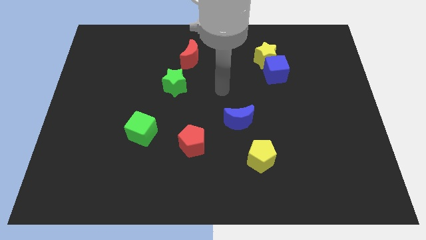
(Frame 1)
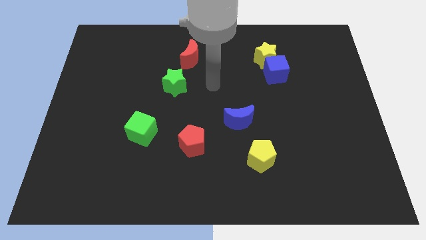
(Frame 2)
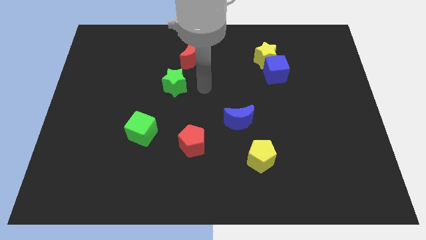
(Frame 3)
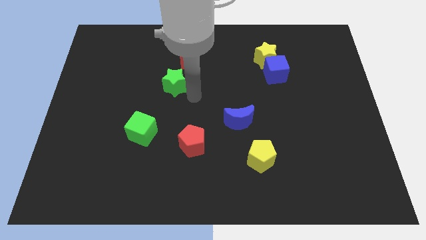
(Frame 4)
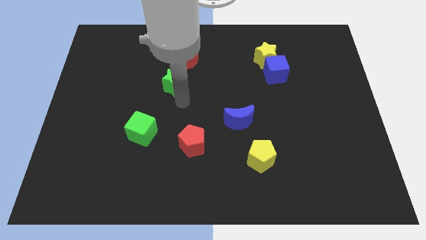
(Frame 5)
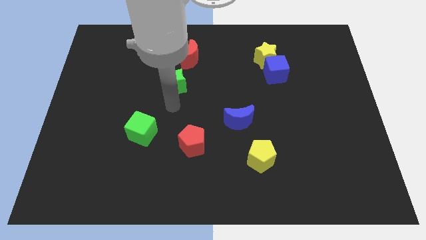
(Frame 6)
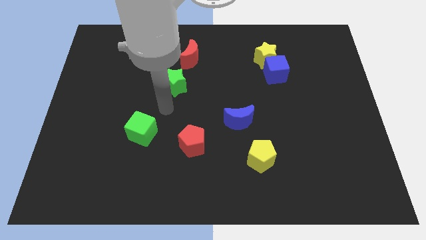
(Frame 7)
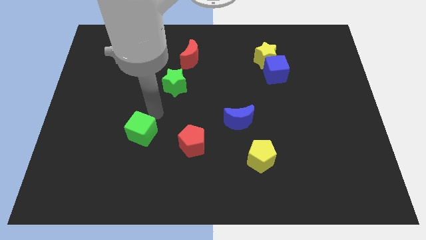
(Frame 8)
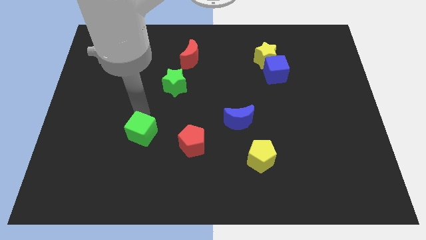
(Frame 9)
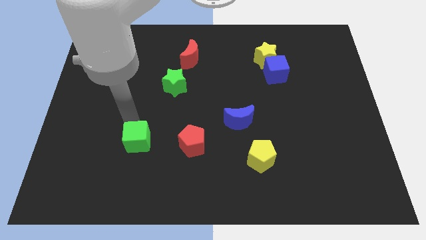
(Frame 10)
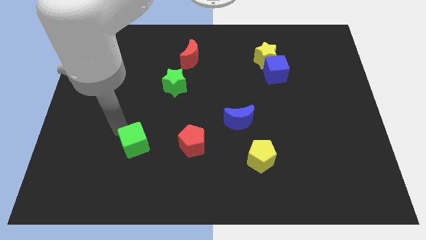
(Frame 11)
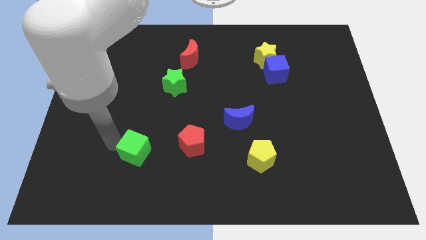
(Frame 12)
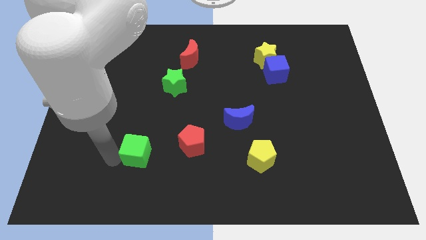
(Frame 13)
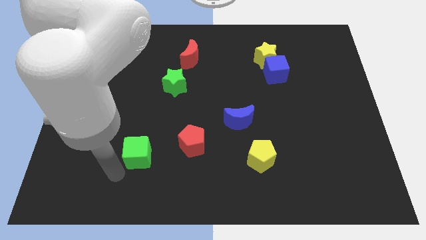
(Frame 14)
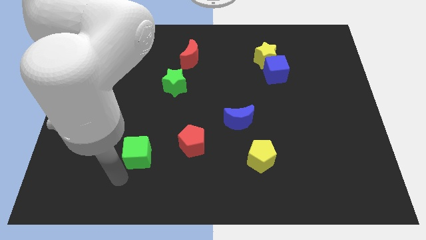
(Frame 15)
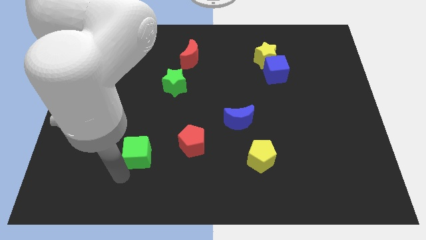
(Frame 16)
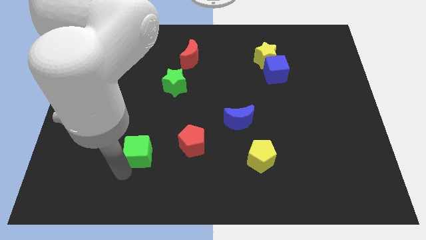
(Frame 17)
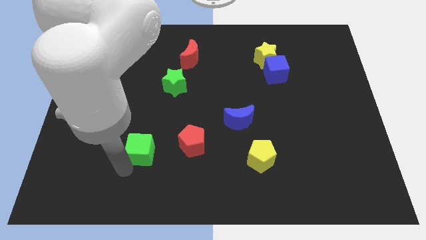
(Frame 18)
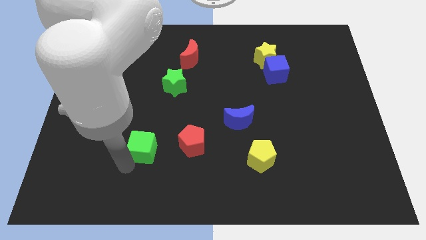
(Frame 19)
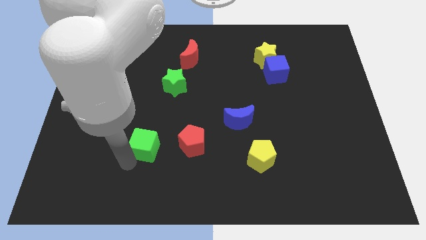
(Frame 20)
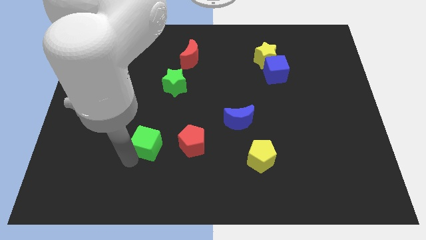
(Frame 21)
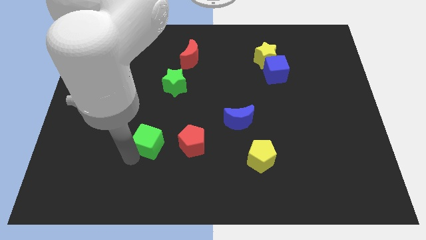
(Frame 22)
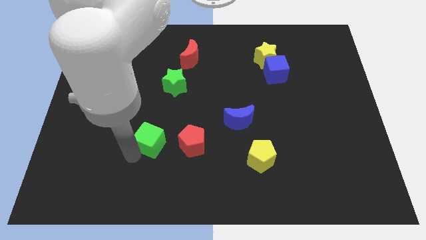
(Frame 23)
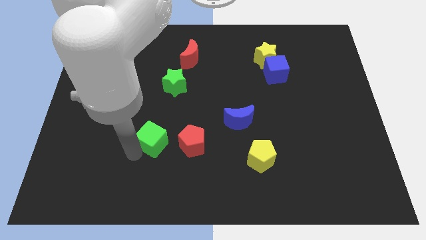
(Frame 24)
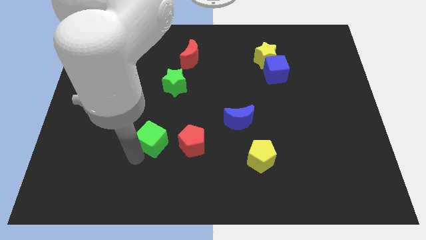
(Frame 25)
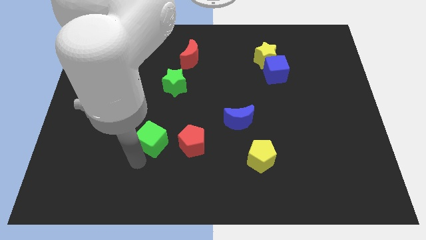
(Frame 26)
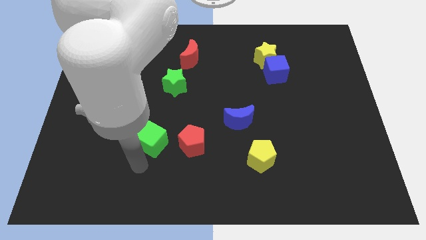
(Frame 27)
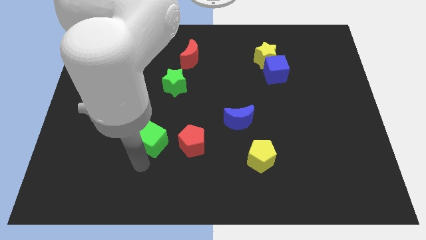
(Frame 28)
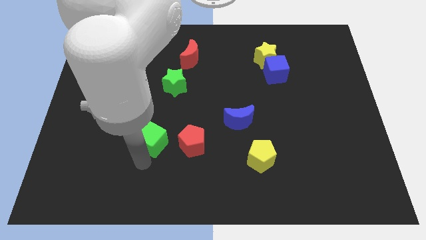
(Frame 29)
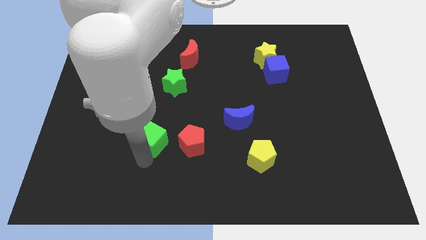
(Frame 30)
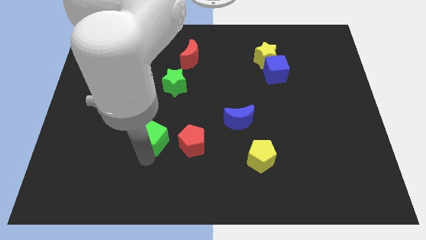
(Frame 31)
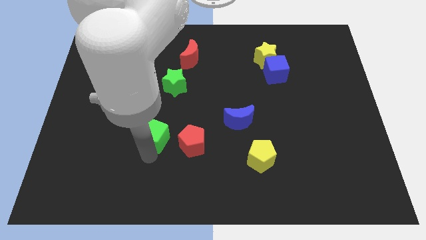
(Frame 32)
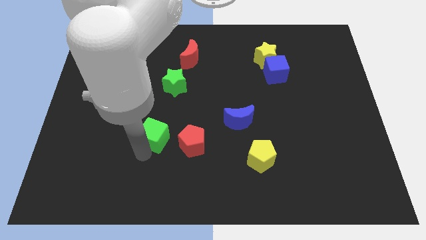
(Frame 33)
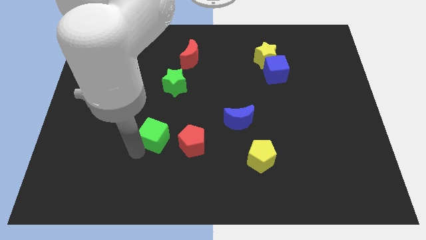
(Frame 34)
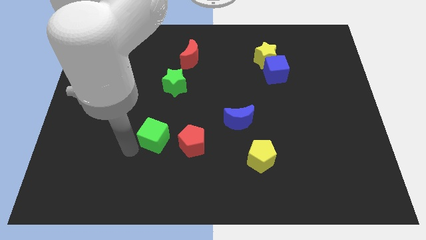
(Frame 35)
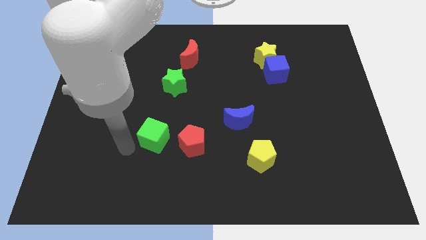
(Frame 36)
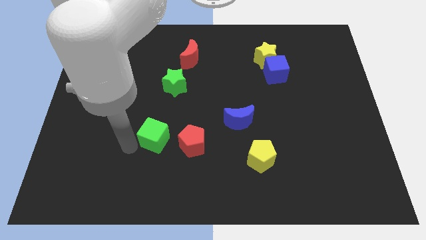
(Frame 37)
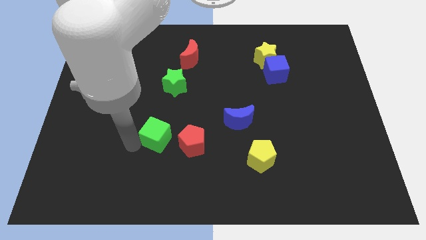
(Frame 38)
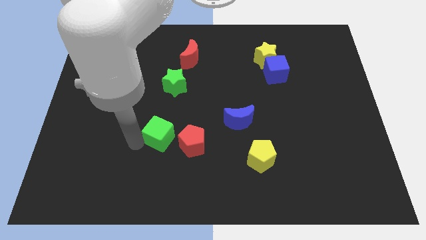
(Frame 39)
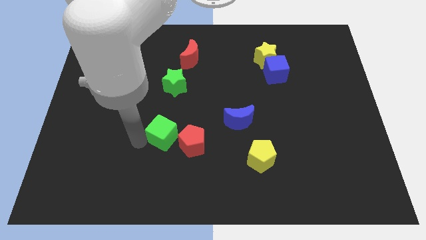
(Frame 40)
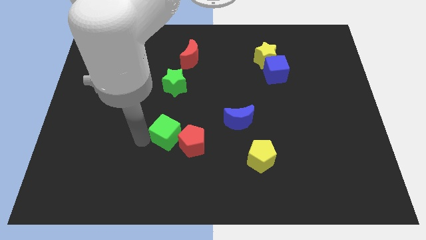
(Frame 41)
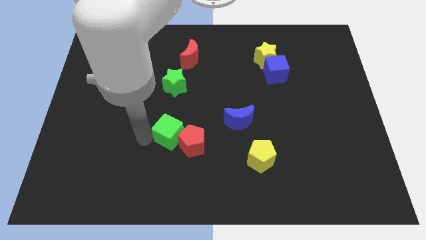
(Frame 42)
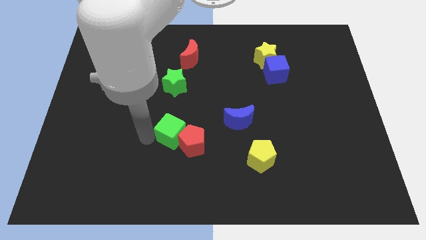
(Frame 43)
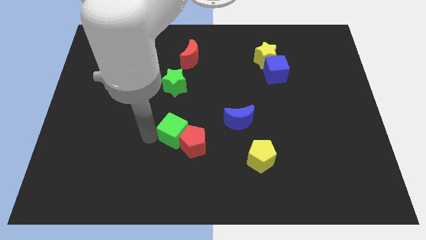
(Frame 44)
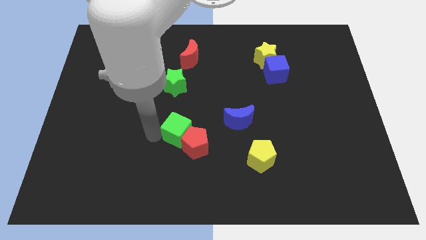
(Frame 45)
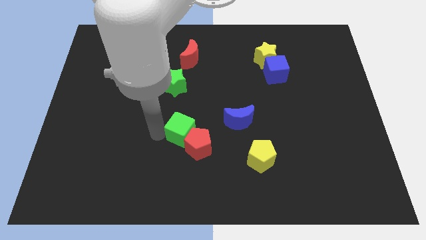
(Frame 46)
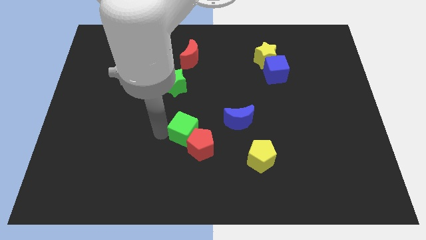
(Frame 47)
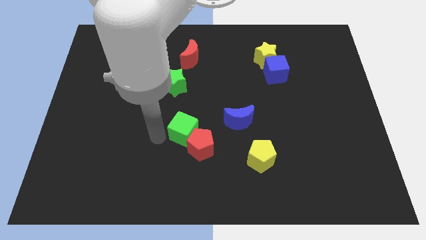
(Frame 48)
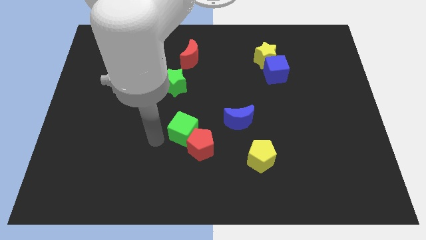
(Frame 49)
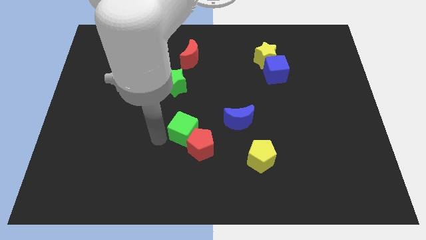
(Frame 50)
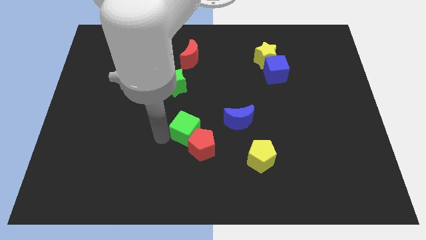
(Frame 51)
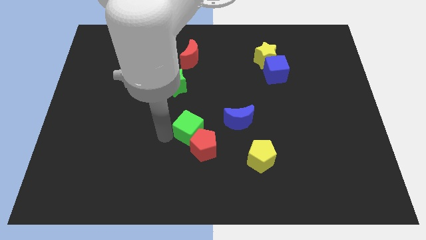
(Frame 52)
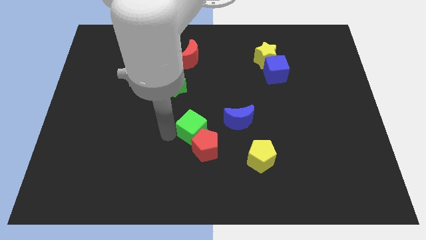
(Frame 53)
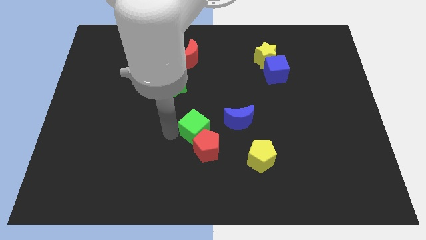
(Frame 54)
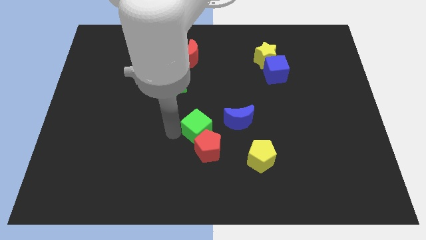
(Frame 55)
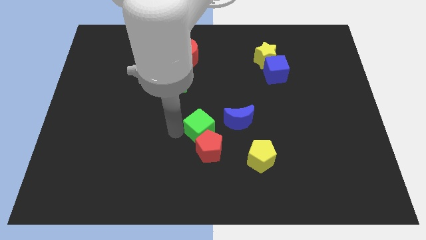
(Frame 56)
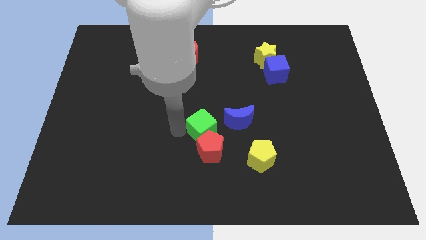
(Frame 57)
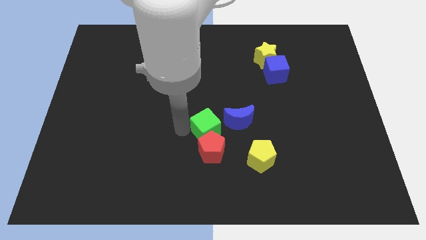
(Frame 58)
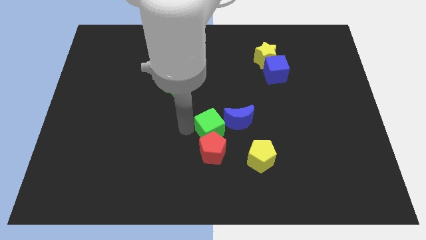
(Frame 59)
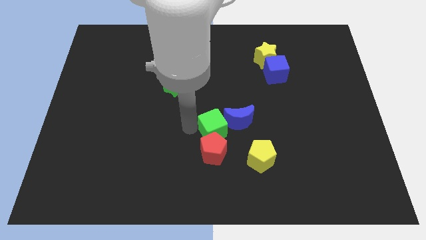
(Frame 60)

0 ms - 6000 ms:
slide the green cube close to the blue moon
